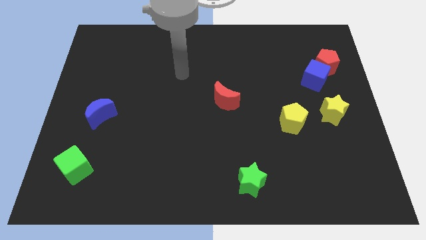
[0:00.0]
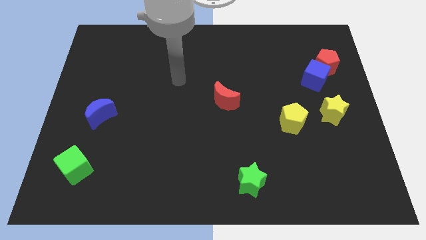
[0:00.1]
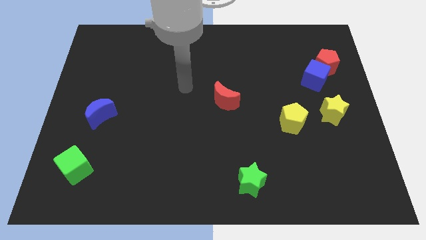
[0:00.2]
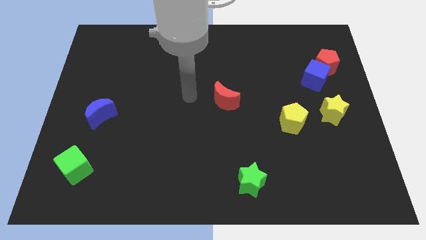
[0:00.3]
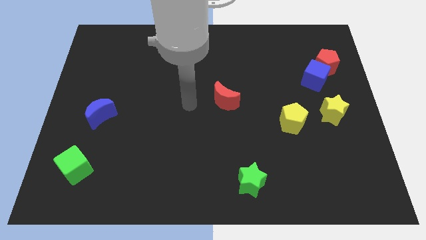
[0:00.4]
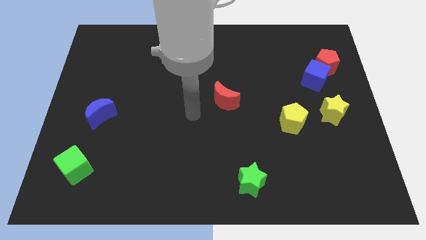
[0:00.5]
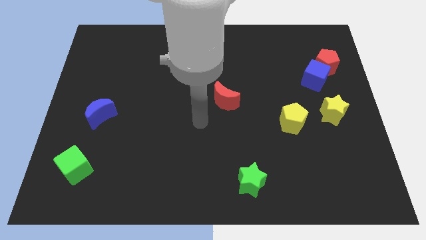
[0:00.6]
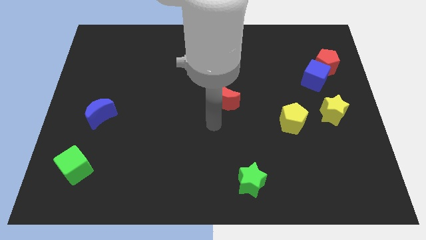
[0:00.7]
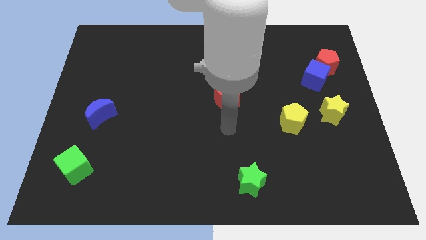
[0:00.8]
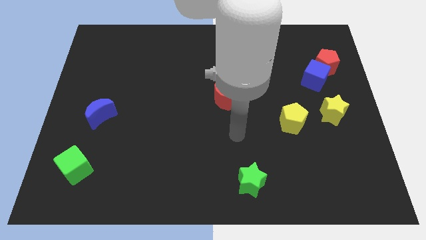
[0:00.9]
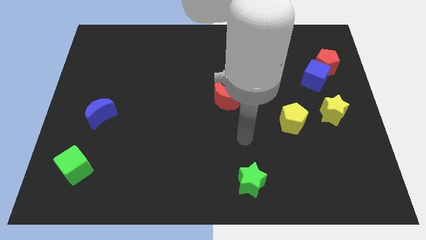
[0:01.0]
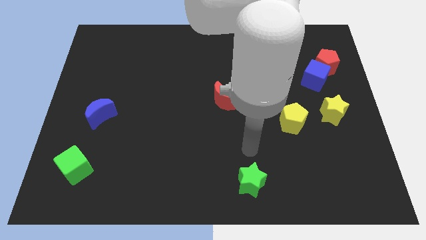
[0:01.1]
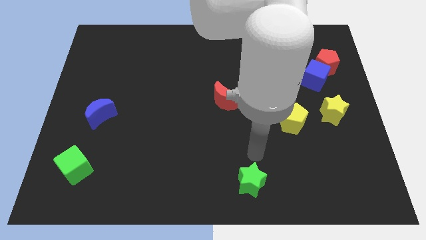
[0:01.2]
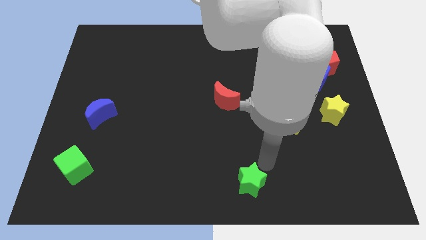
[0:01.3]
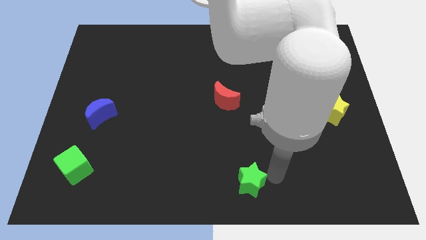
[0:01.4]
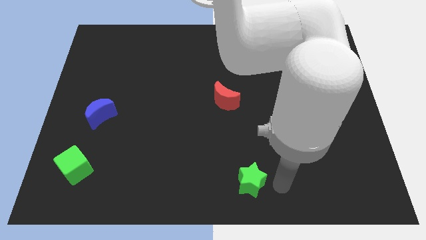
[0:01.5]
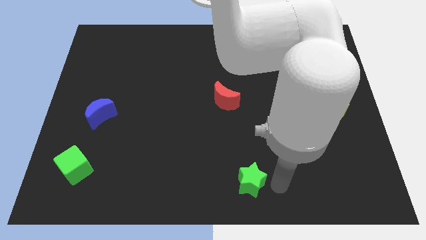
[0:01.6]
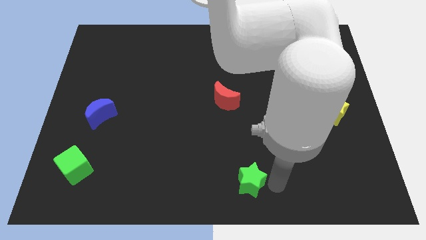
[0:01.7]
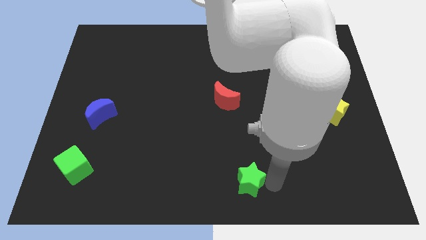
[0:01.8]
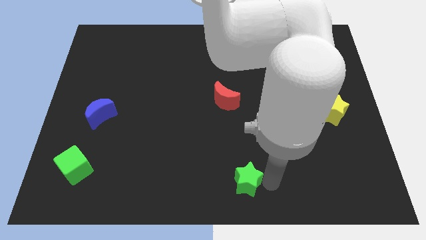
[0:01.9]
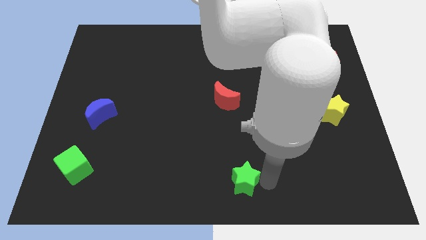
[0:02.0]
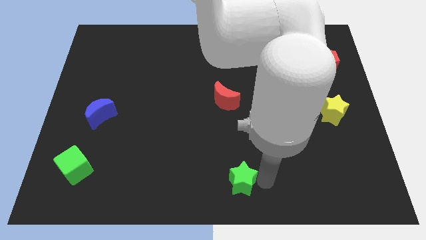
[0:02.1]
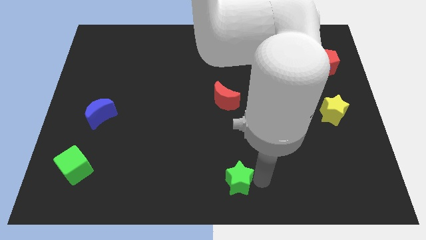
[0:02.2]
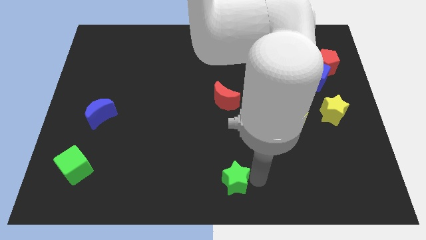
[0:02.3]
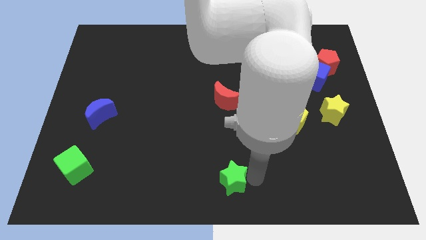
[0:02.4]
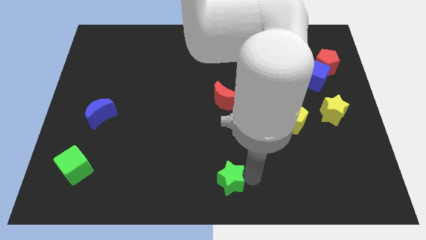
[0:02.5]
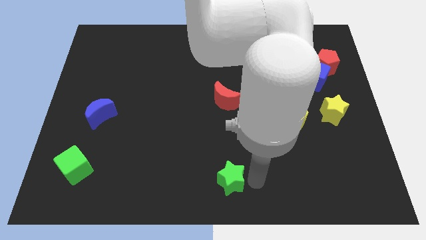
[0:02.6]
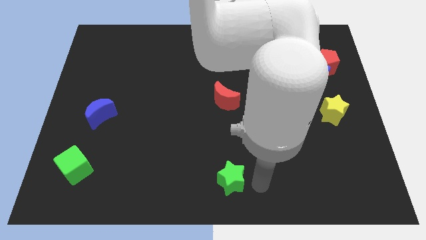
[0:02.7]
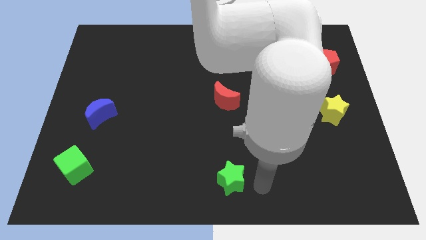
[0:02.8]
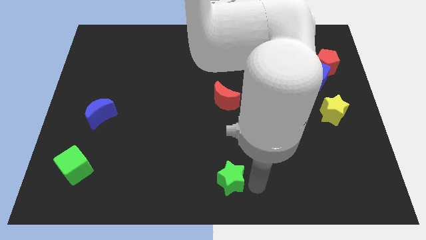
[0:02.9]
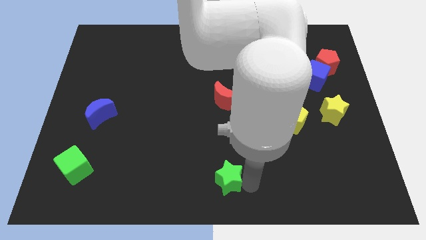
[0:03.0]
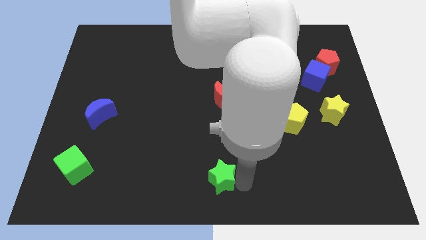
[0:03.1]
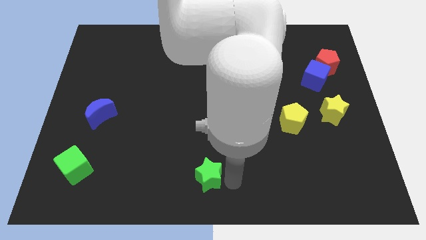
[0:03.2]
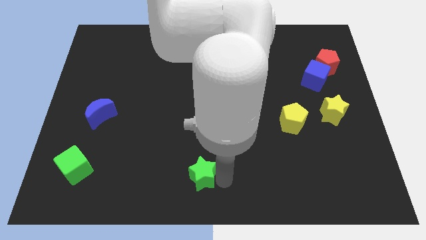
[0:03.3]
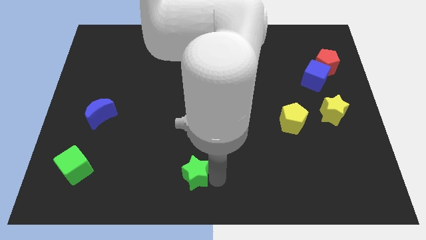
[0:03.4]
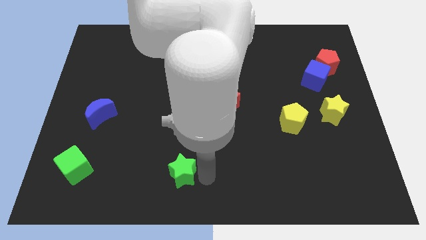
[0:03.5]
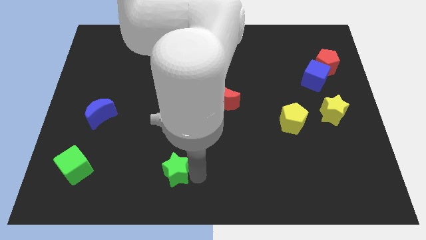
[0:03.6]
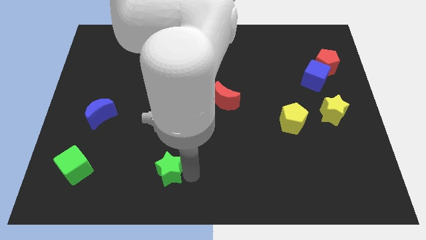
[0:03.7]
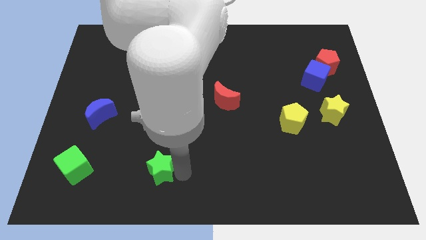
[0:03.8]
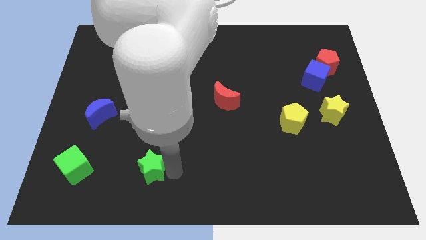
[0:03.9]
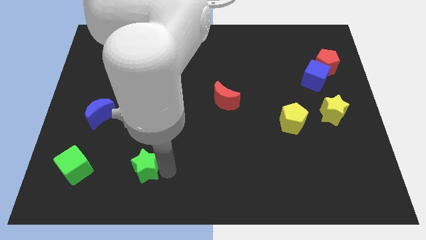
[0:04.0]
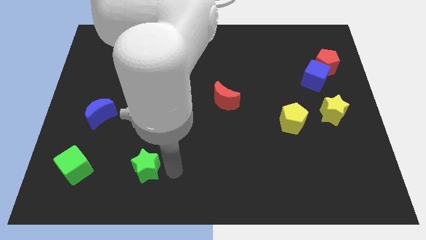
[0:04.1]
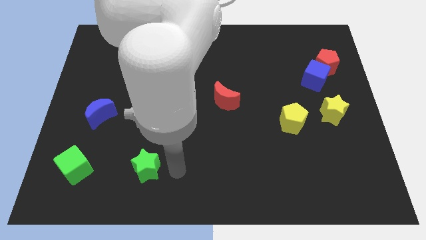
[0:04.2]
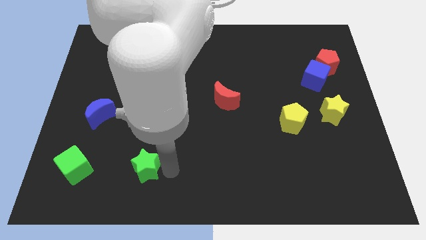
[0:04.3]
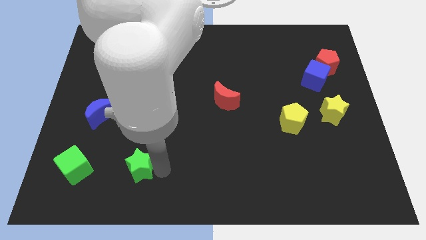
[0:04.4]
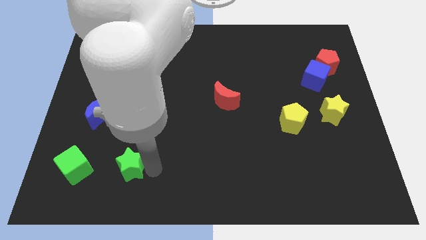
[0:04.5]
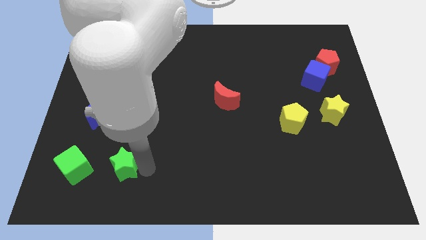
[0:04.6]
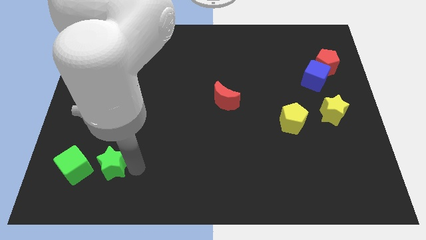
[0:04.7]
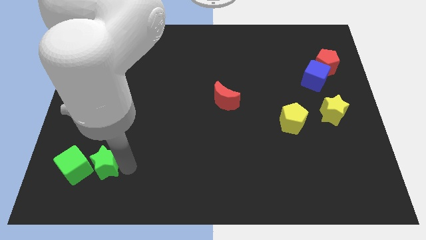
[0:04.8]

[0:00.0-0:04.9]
slide the green star towards the green cube

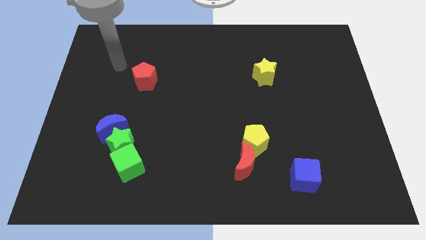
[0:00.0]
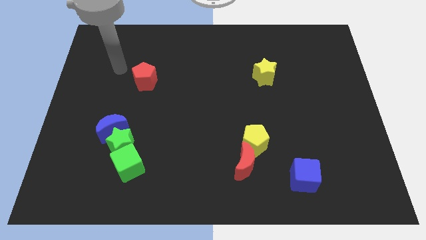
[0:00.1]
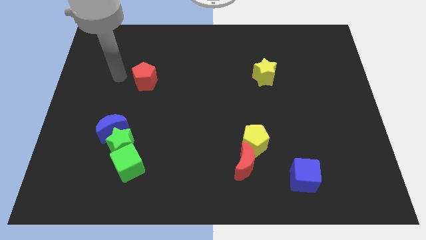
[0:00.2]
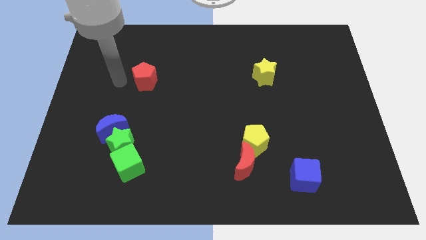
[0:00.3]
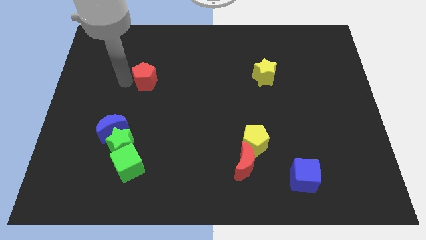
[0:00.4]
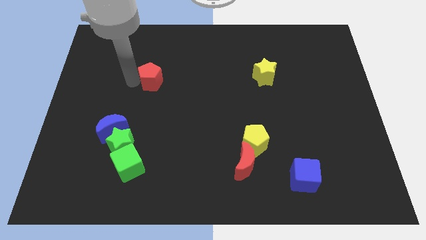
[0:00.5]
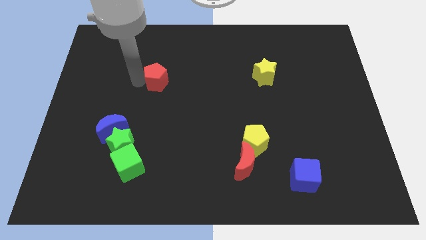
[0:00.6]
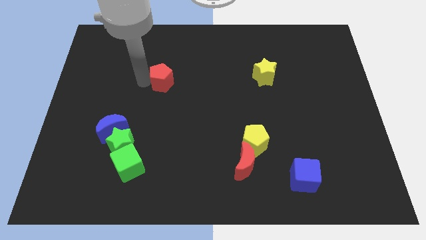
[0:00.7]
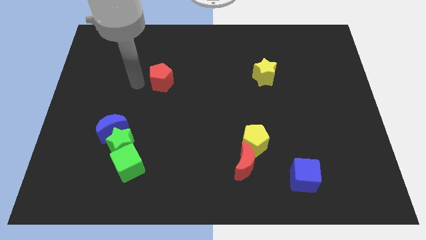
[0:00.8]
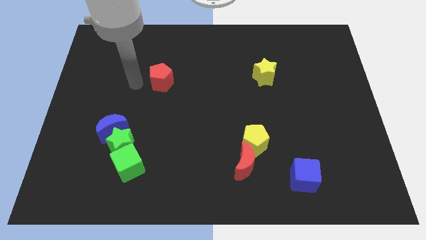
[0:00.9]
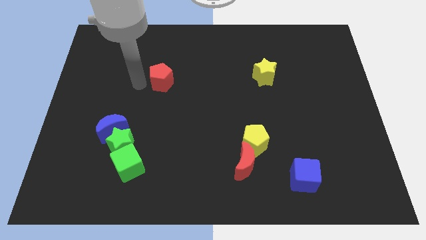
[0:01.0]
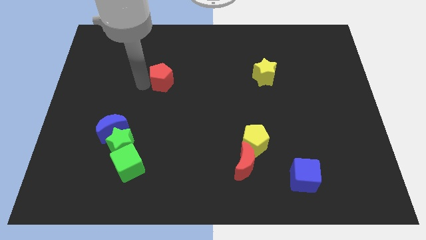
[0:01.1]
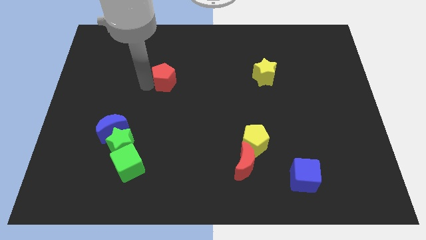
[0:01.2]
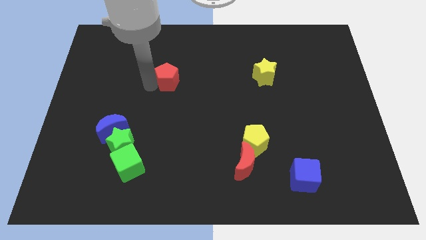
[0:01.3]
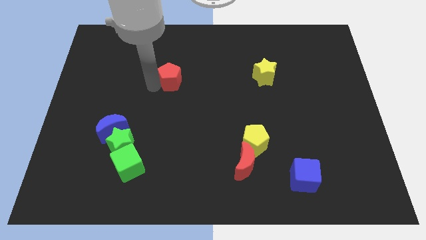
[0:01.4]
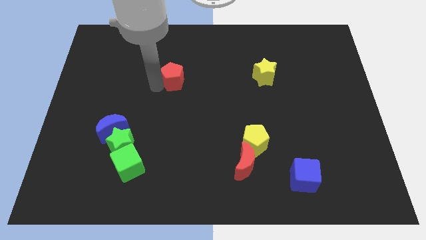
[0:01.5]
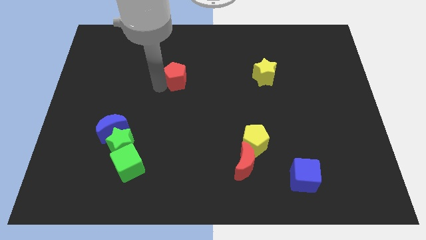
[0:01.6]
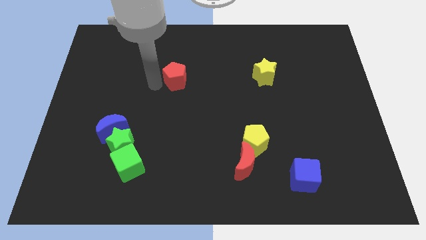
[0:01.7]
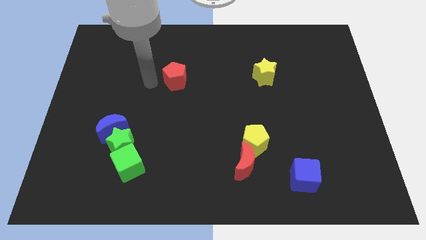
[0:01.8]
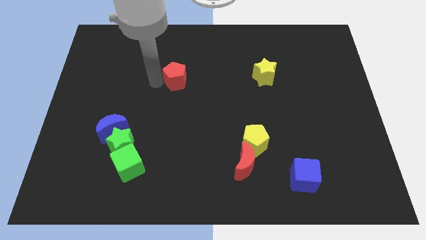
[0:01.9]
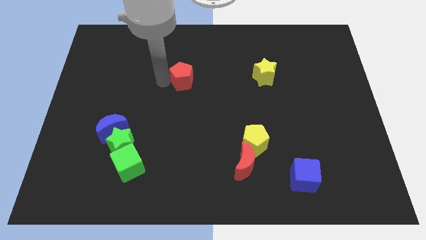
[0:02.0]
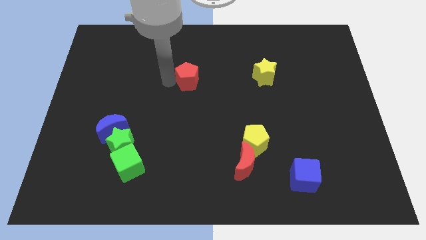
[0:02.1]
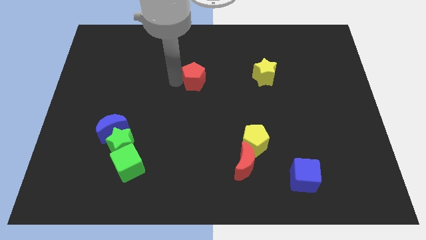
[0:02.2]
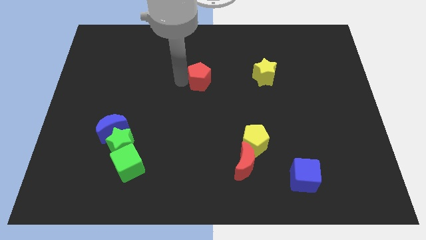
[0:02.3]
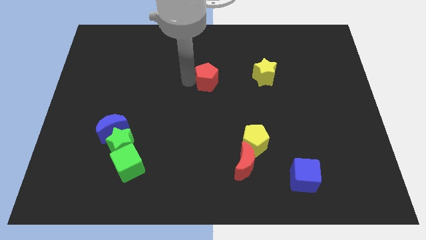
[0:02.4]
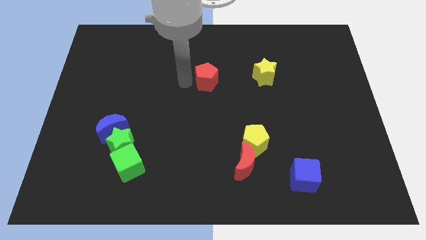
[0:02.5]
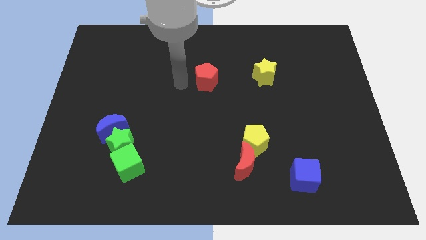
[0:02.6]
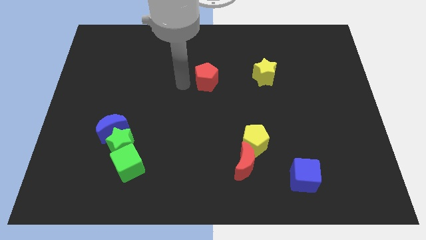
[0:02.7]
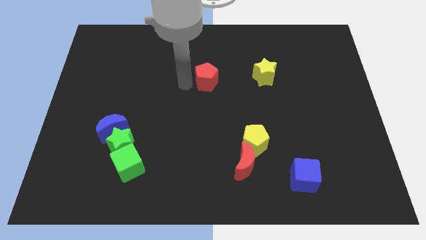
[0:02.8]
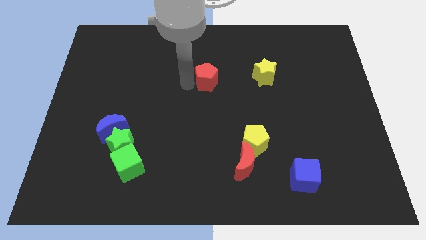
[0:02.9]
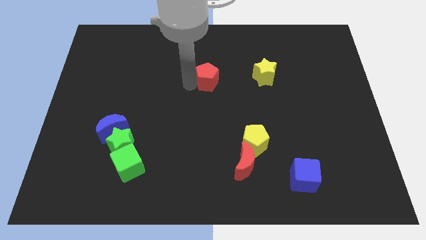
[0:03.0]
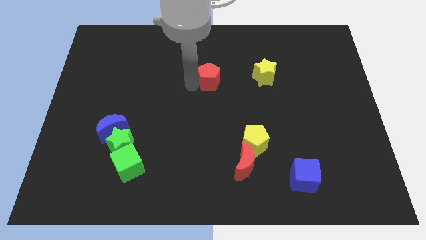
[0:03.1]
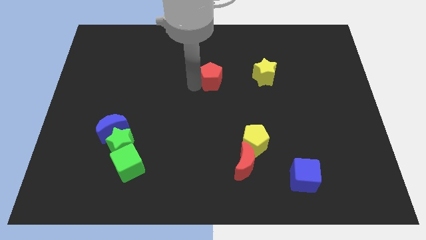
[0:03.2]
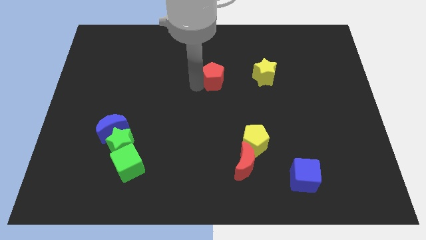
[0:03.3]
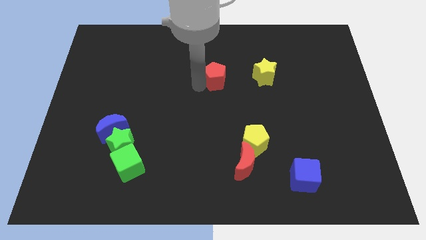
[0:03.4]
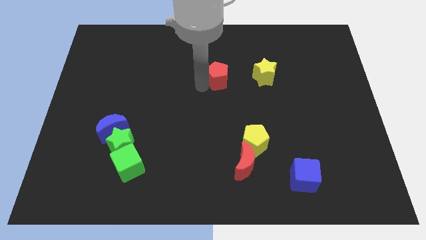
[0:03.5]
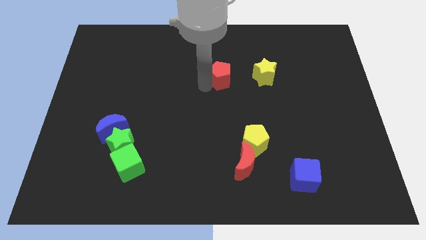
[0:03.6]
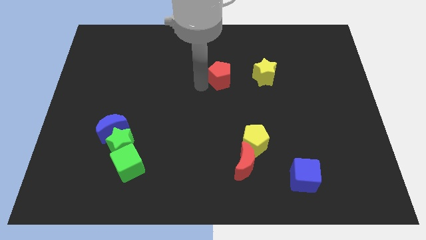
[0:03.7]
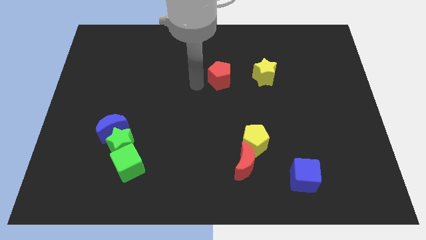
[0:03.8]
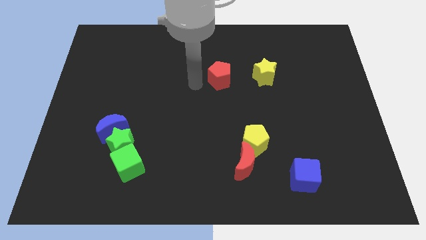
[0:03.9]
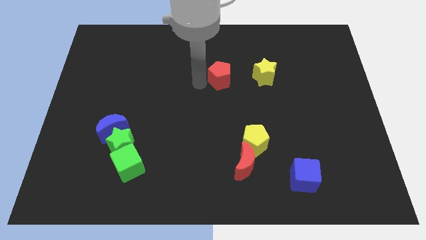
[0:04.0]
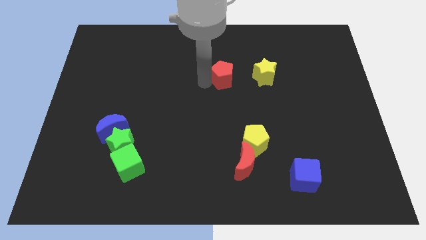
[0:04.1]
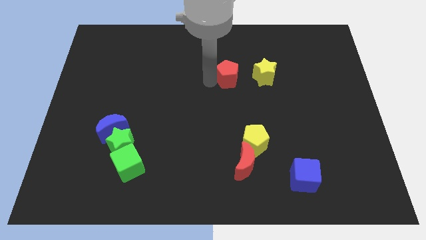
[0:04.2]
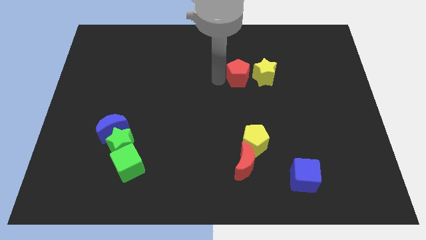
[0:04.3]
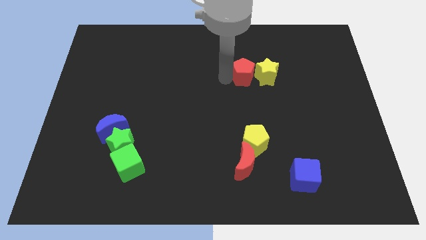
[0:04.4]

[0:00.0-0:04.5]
move the red pentagon towards the yellow star
